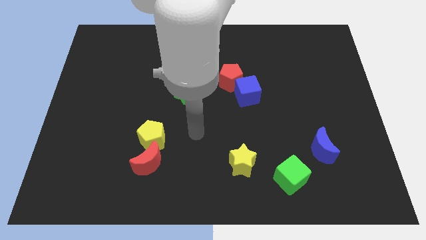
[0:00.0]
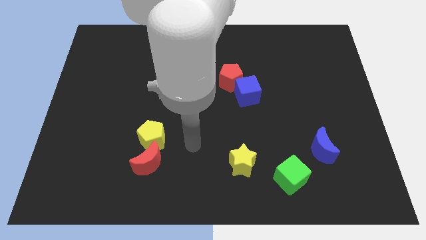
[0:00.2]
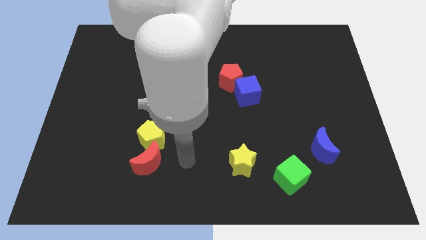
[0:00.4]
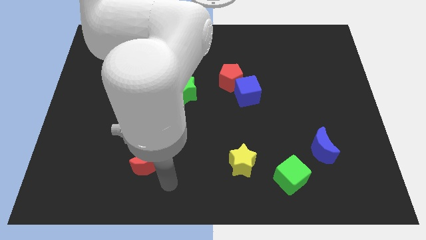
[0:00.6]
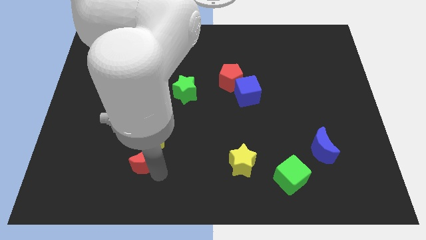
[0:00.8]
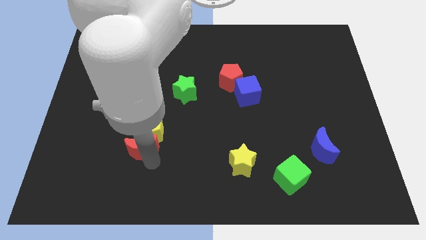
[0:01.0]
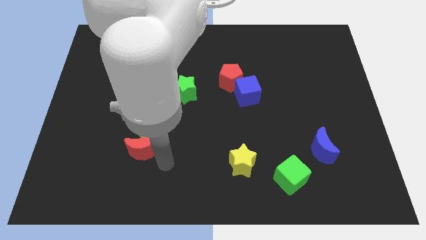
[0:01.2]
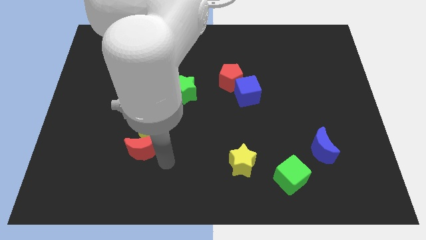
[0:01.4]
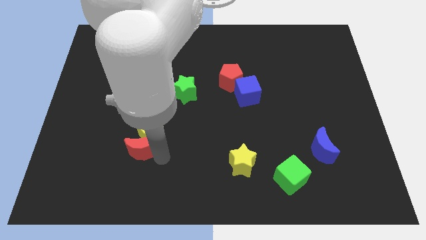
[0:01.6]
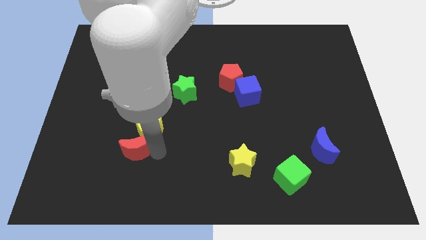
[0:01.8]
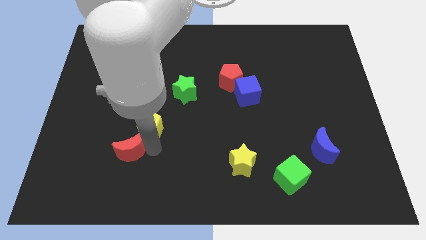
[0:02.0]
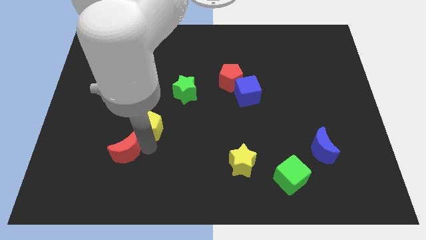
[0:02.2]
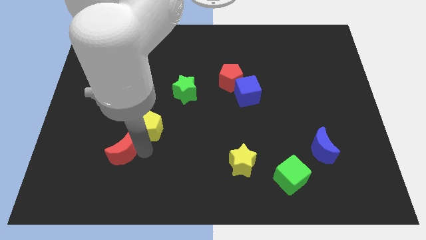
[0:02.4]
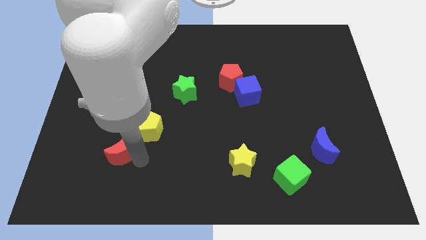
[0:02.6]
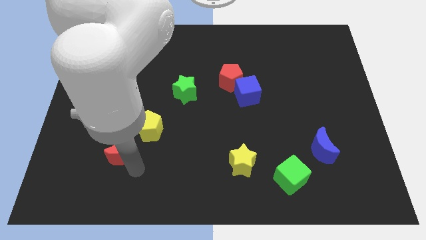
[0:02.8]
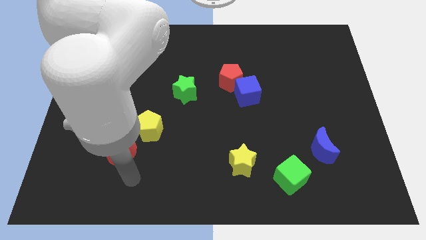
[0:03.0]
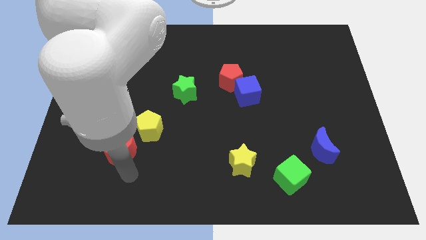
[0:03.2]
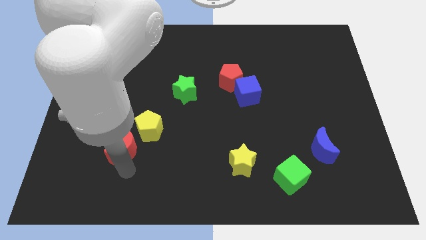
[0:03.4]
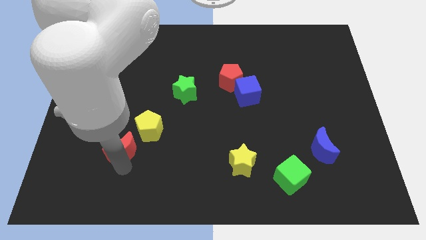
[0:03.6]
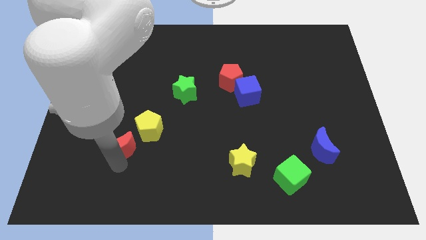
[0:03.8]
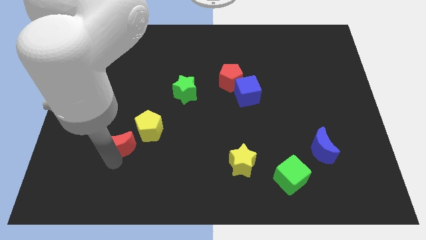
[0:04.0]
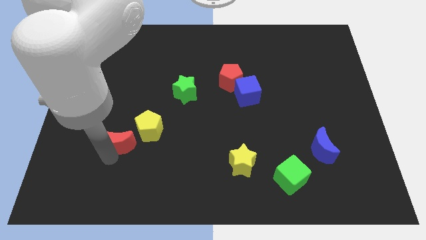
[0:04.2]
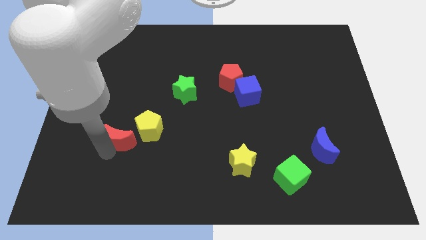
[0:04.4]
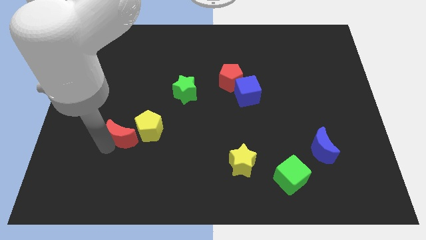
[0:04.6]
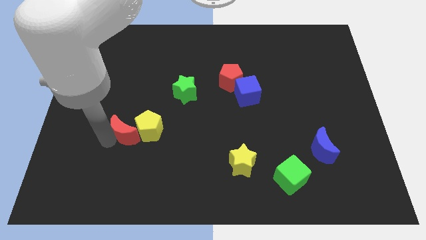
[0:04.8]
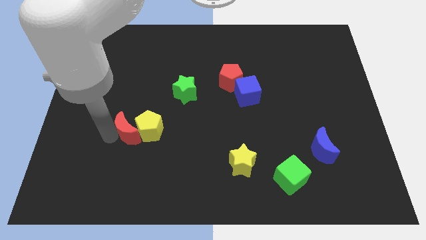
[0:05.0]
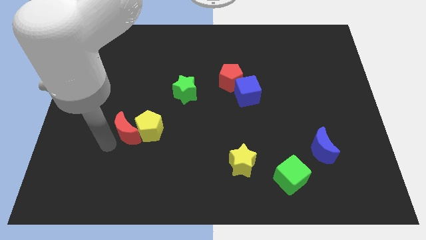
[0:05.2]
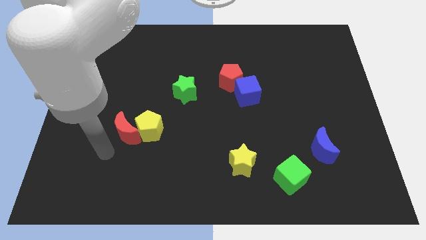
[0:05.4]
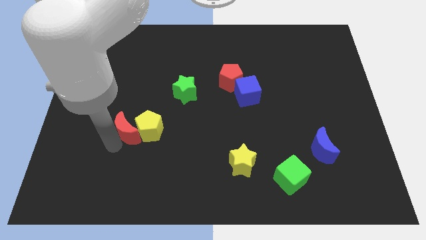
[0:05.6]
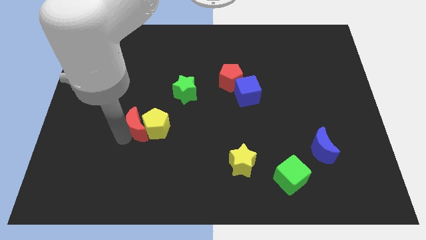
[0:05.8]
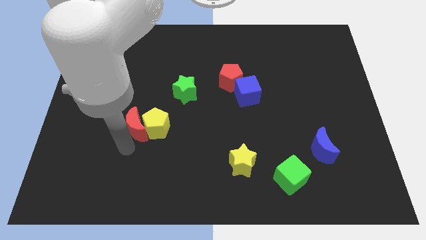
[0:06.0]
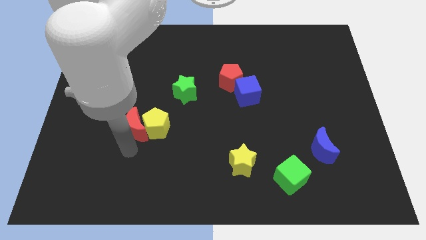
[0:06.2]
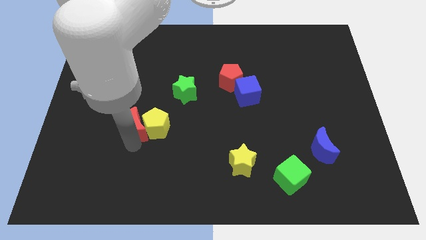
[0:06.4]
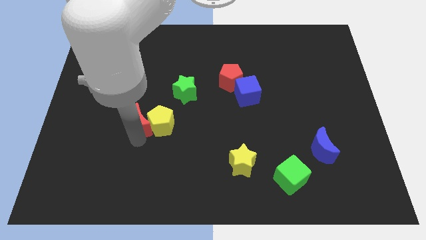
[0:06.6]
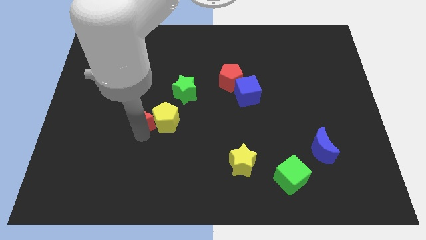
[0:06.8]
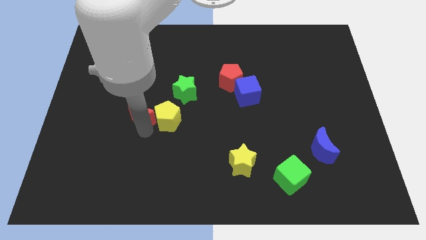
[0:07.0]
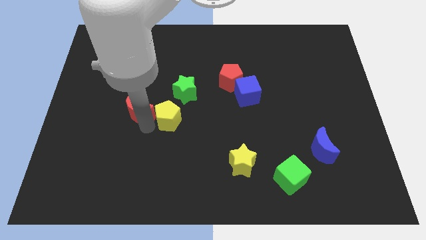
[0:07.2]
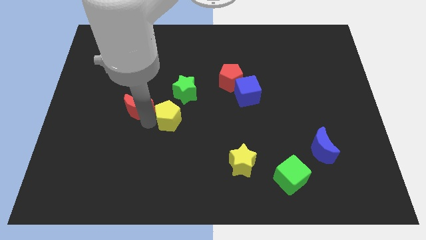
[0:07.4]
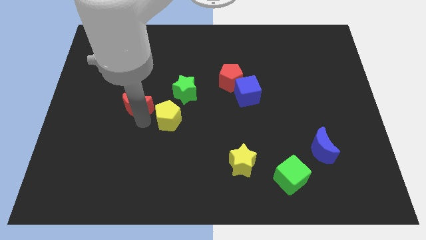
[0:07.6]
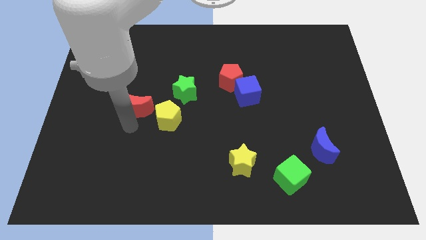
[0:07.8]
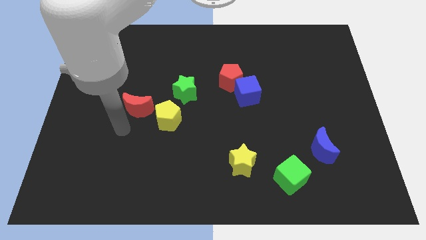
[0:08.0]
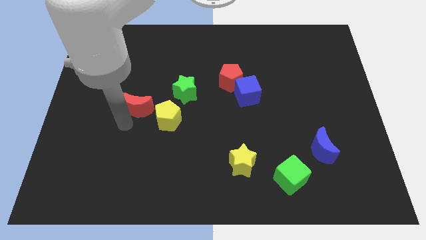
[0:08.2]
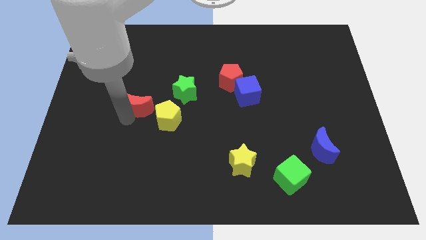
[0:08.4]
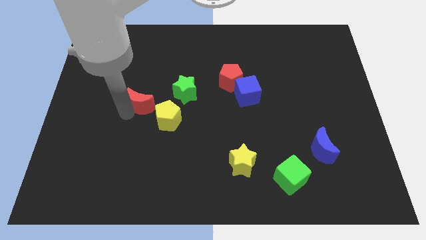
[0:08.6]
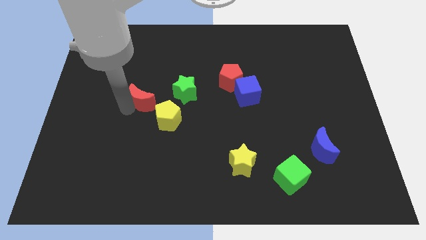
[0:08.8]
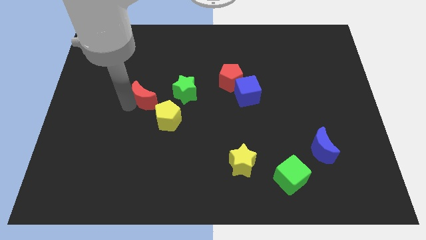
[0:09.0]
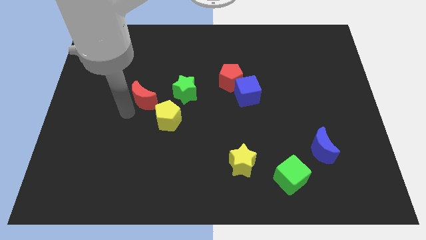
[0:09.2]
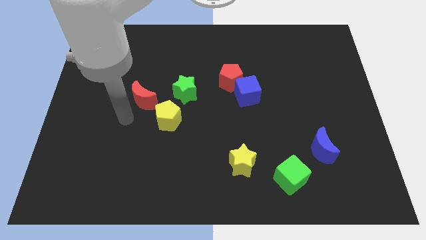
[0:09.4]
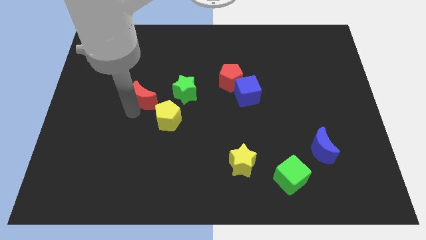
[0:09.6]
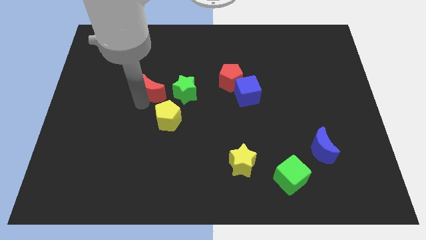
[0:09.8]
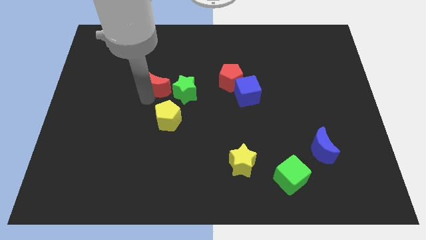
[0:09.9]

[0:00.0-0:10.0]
push the red moon up

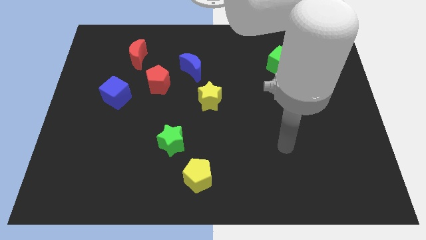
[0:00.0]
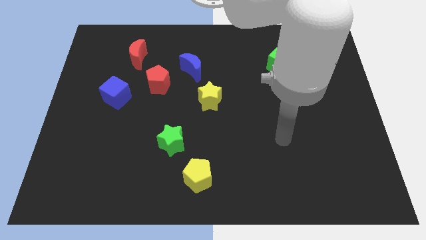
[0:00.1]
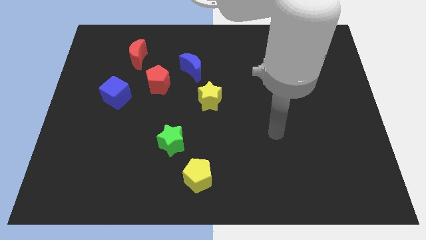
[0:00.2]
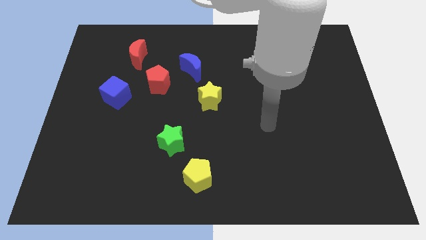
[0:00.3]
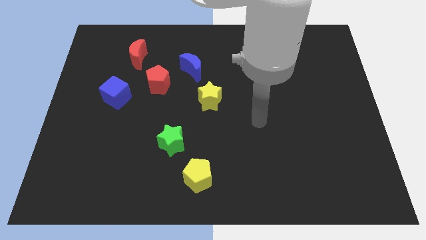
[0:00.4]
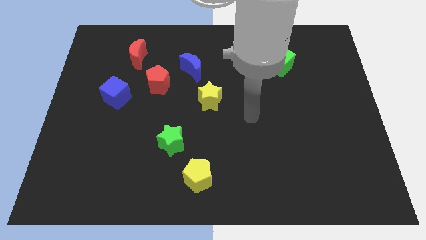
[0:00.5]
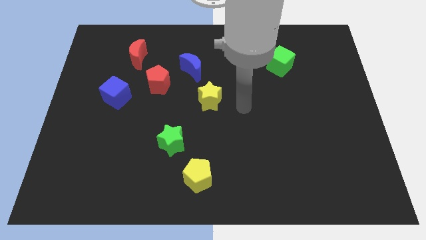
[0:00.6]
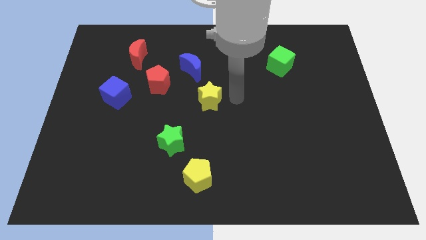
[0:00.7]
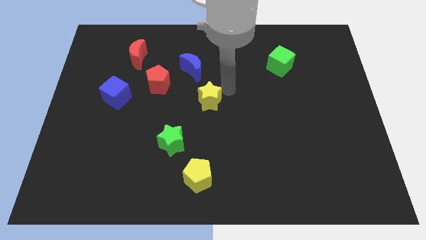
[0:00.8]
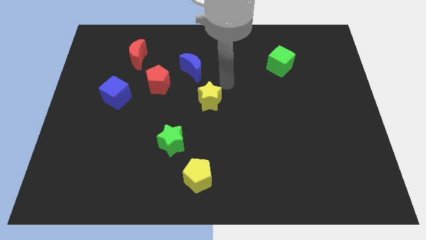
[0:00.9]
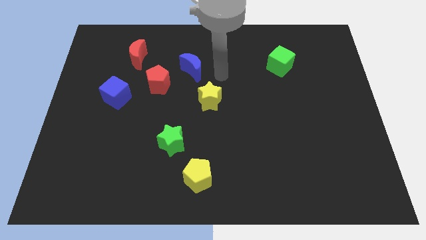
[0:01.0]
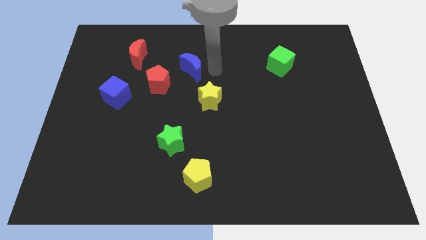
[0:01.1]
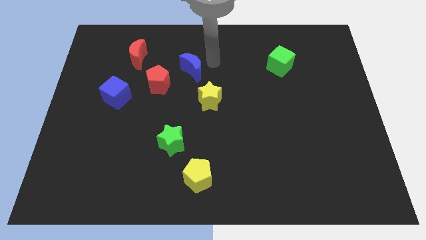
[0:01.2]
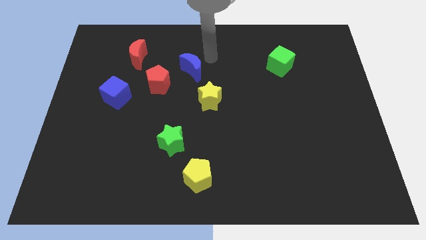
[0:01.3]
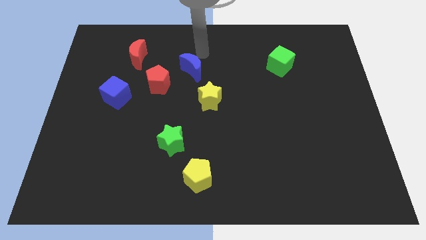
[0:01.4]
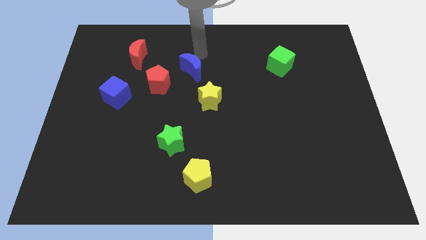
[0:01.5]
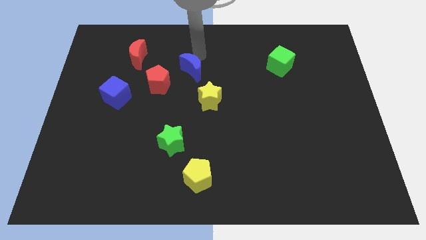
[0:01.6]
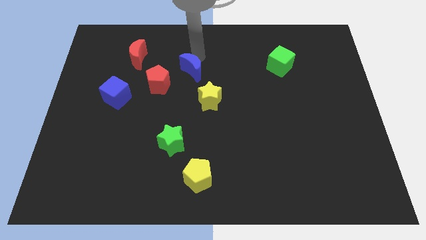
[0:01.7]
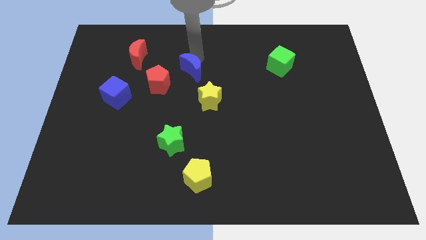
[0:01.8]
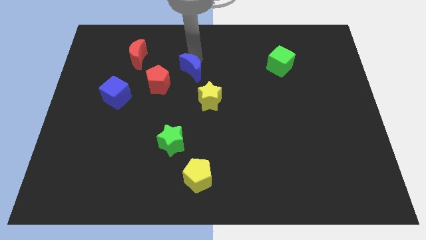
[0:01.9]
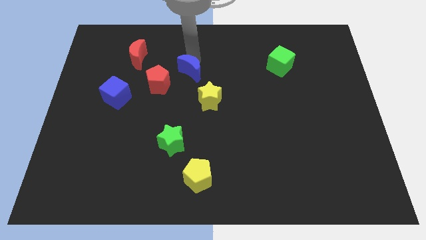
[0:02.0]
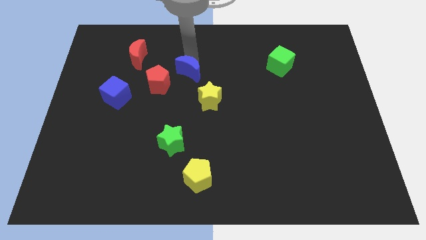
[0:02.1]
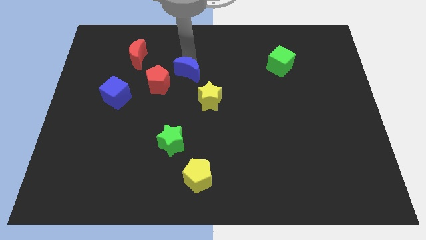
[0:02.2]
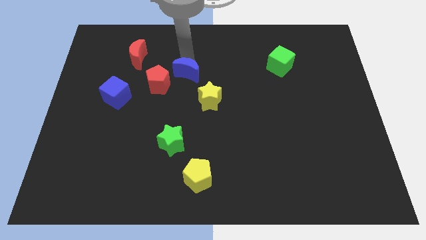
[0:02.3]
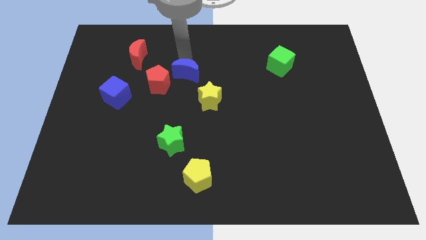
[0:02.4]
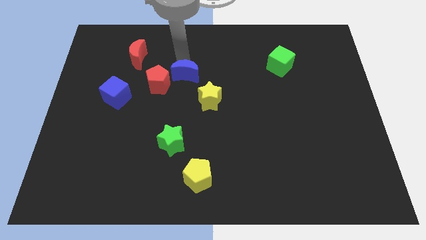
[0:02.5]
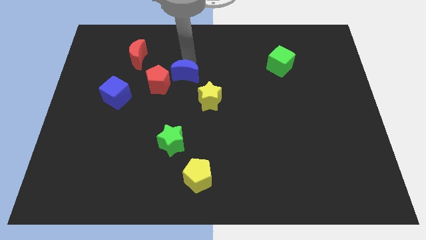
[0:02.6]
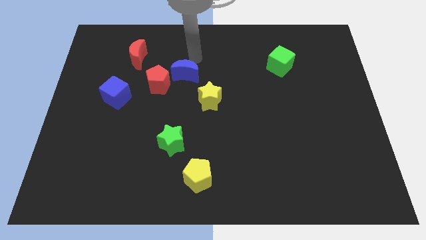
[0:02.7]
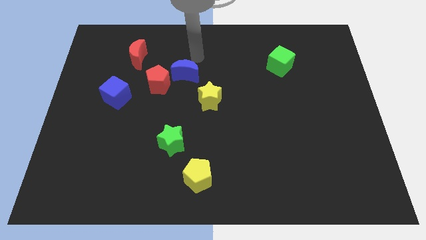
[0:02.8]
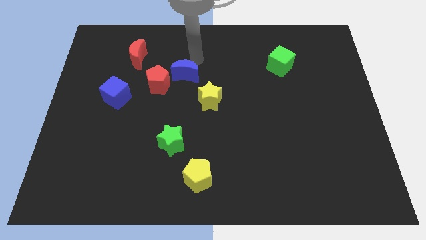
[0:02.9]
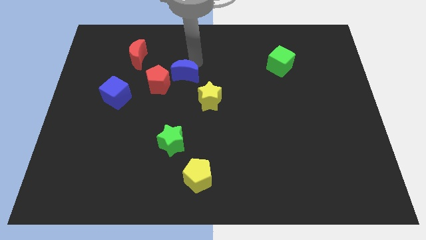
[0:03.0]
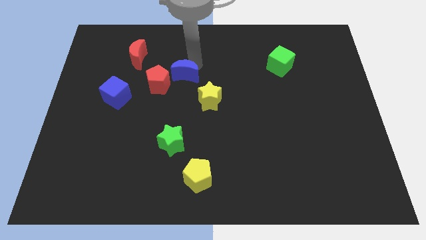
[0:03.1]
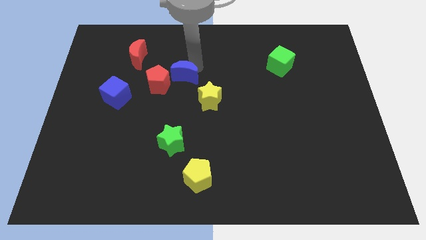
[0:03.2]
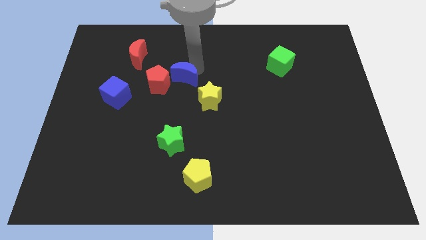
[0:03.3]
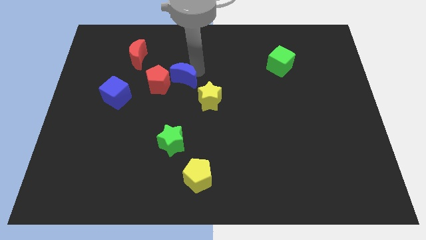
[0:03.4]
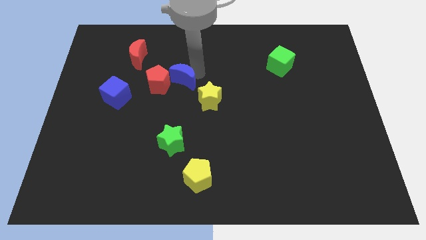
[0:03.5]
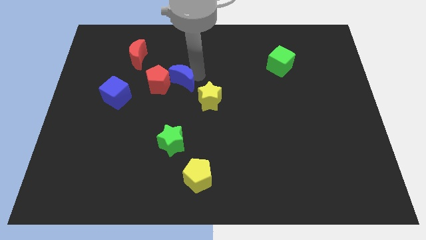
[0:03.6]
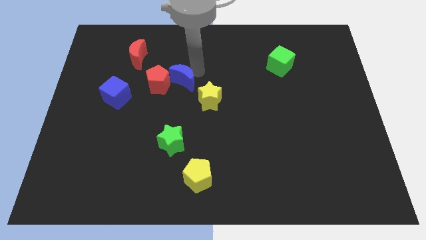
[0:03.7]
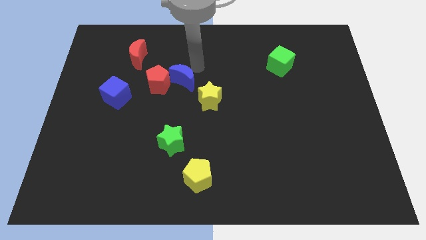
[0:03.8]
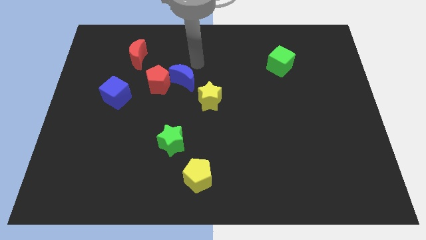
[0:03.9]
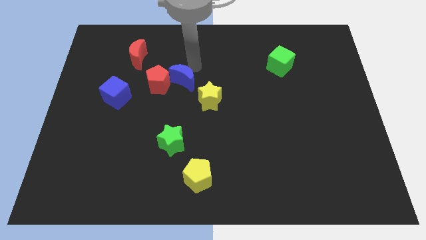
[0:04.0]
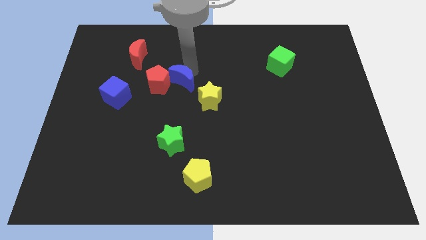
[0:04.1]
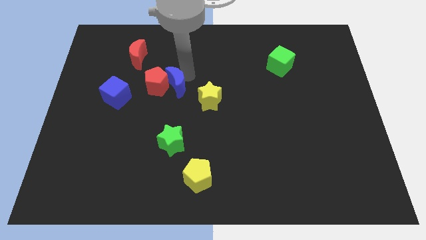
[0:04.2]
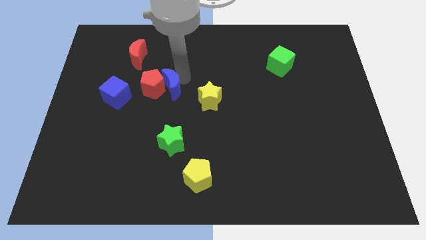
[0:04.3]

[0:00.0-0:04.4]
push the blue moon downwards and to the left slightly
